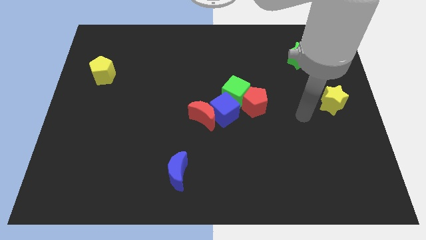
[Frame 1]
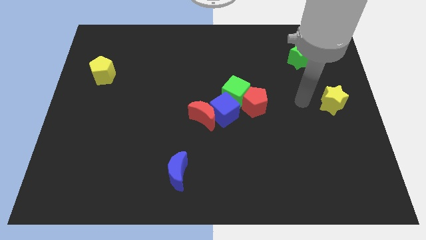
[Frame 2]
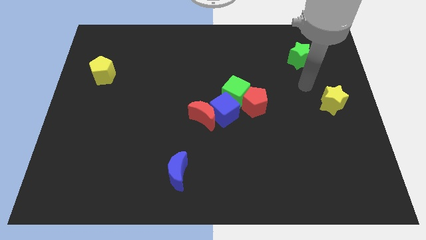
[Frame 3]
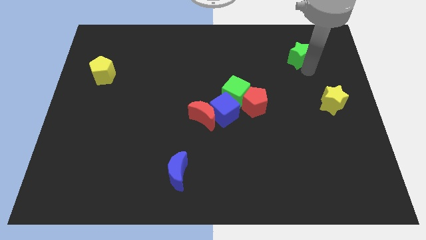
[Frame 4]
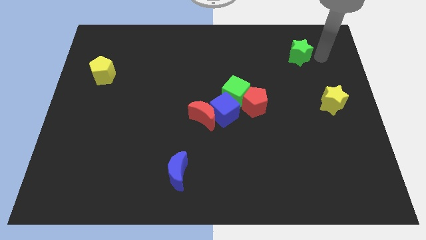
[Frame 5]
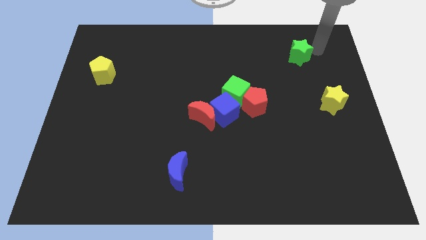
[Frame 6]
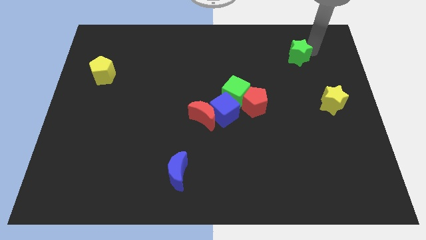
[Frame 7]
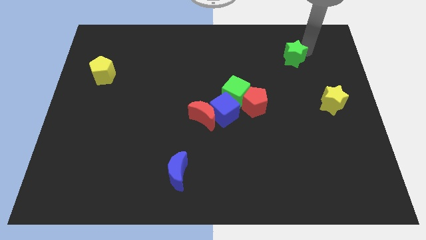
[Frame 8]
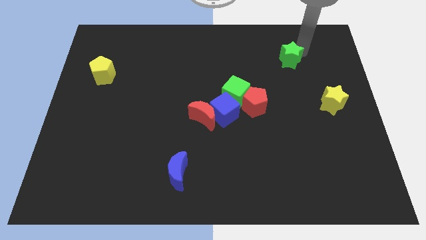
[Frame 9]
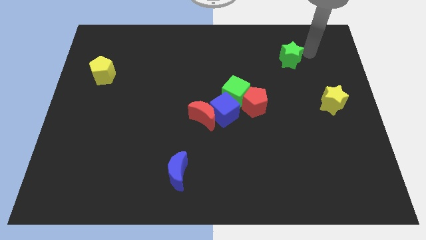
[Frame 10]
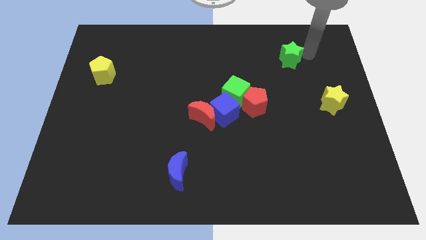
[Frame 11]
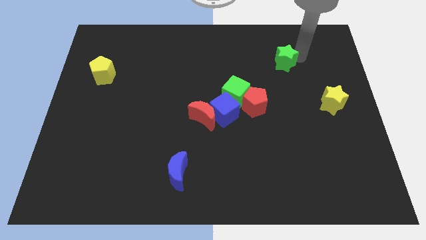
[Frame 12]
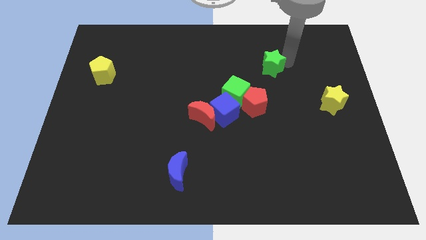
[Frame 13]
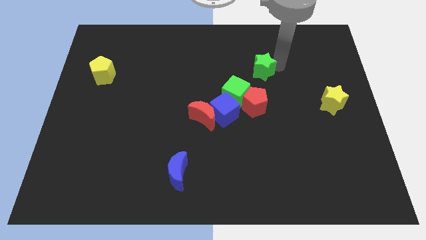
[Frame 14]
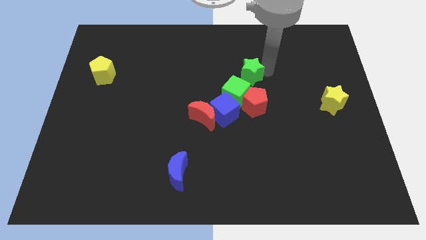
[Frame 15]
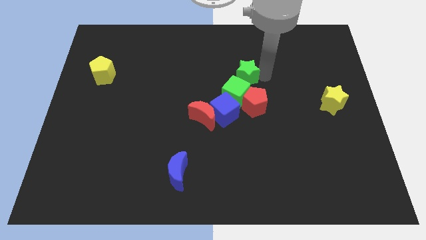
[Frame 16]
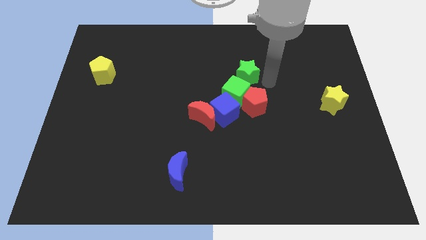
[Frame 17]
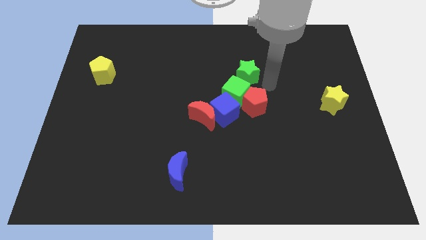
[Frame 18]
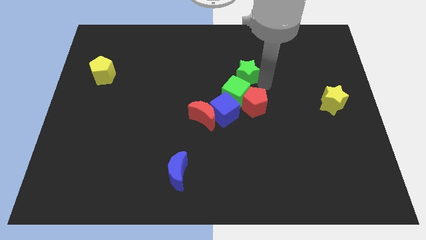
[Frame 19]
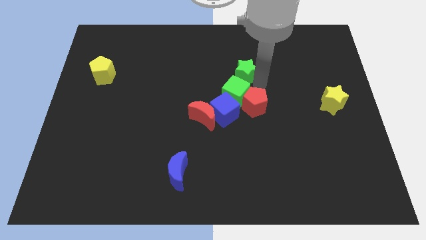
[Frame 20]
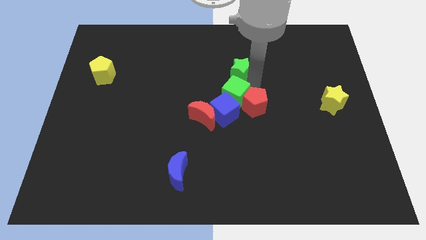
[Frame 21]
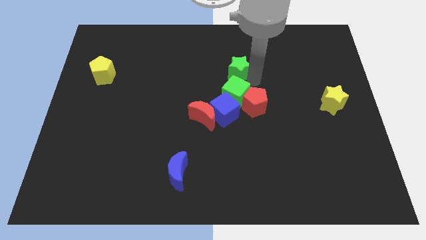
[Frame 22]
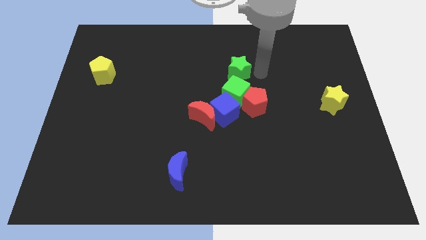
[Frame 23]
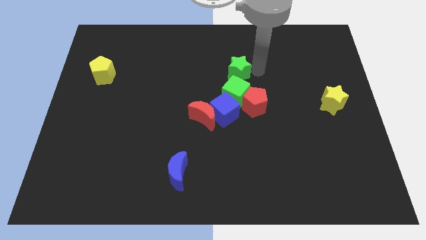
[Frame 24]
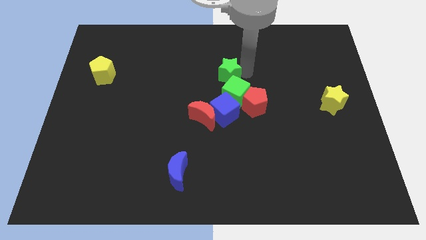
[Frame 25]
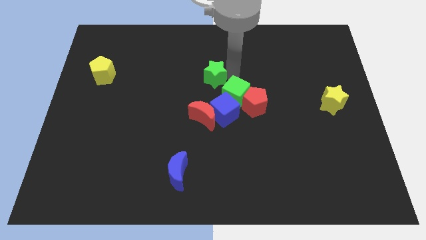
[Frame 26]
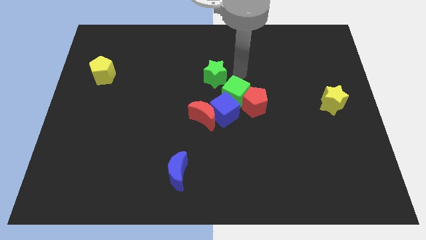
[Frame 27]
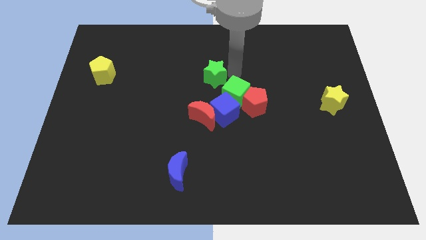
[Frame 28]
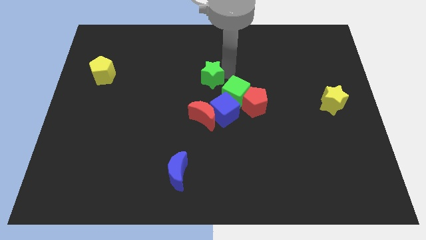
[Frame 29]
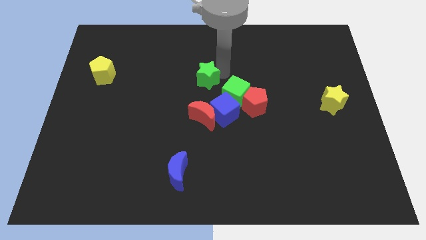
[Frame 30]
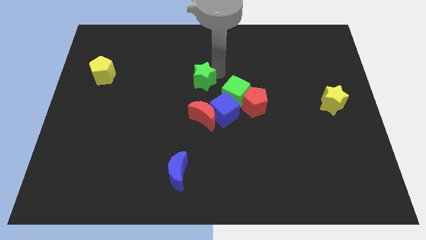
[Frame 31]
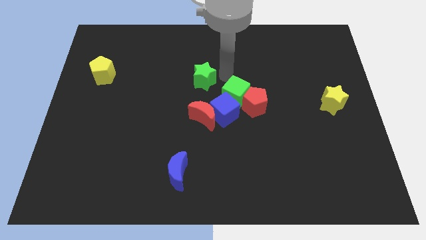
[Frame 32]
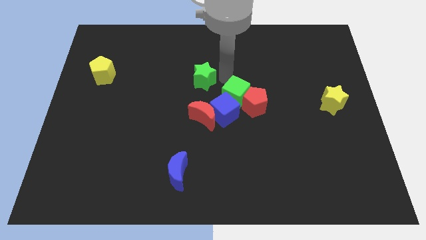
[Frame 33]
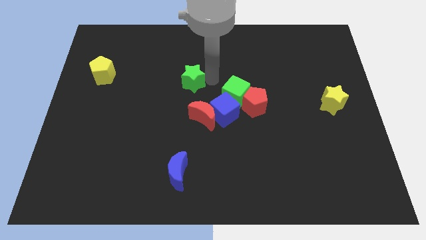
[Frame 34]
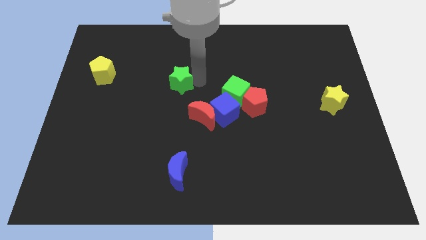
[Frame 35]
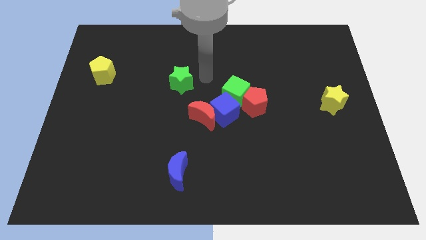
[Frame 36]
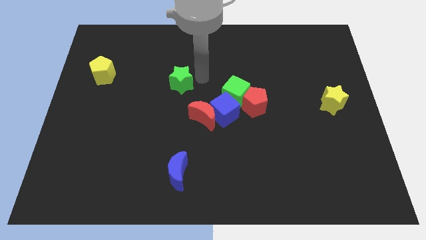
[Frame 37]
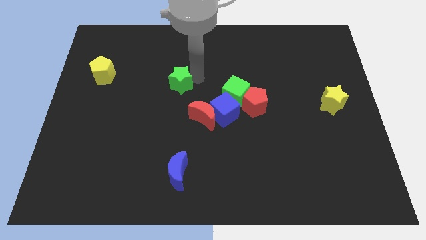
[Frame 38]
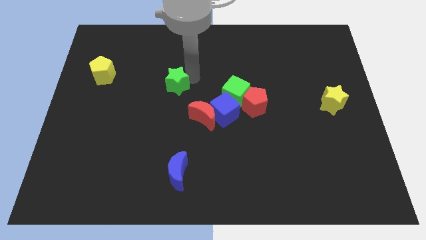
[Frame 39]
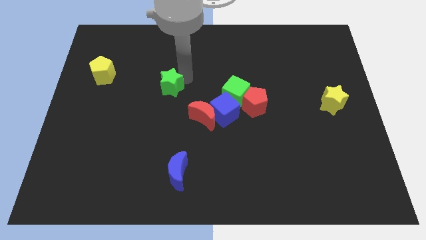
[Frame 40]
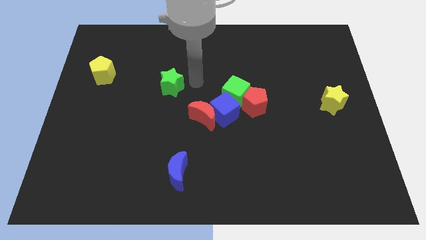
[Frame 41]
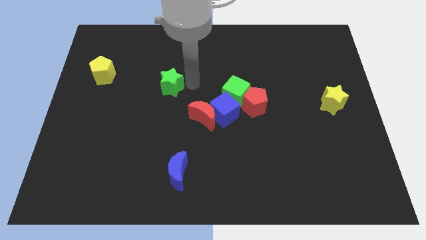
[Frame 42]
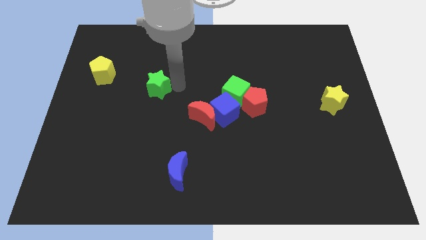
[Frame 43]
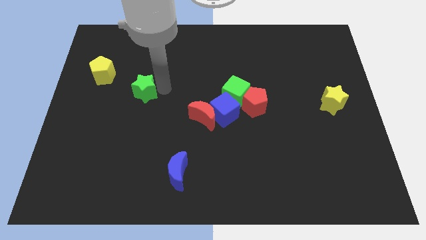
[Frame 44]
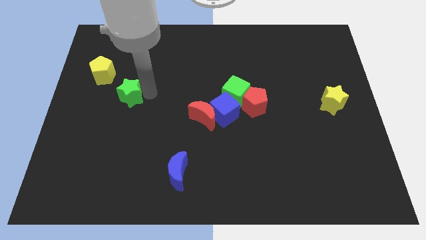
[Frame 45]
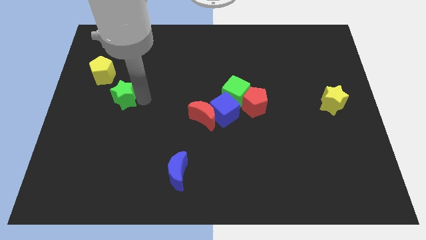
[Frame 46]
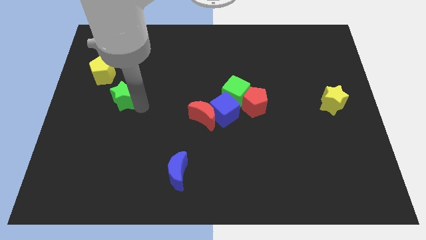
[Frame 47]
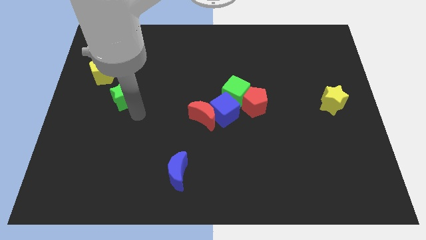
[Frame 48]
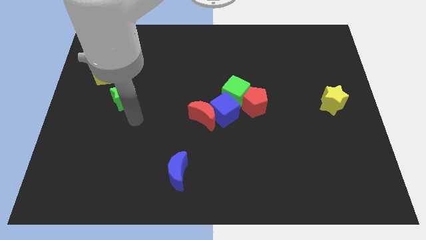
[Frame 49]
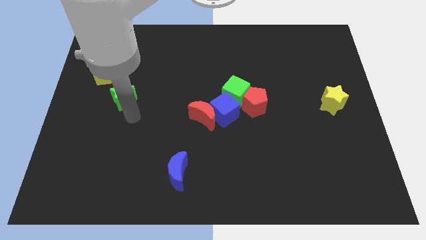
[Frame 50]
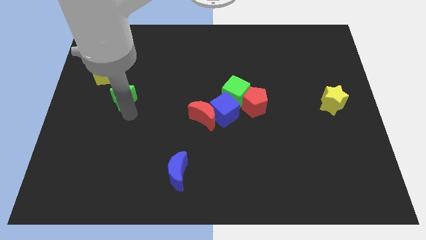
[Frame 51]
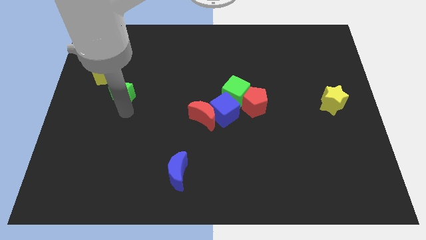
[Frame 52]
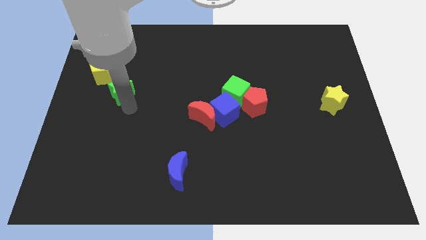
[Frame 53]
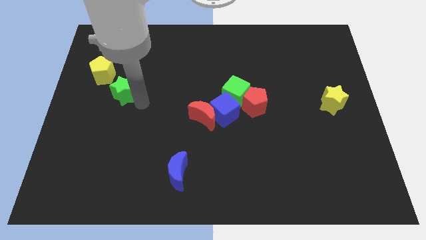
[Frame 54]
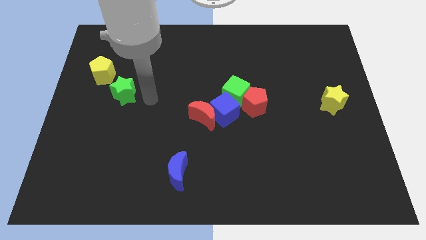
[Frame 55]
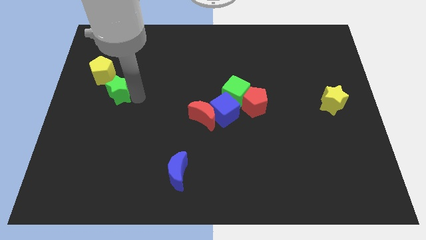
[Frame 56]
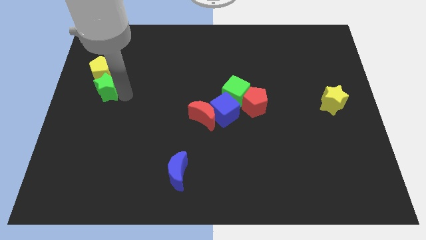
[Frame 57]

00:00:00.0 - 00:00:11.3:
slide the green star to the left side

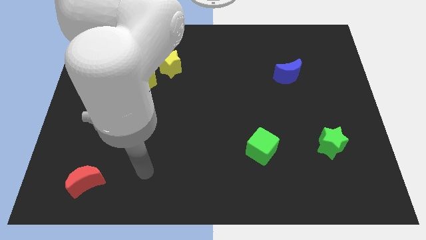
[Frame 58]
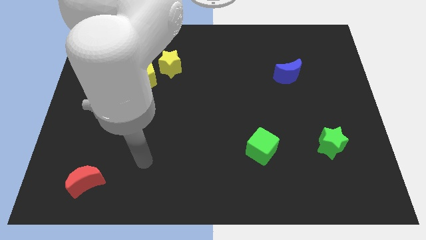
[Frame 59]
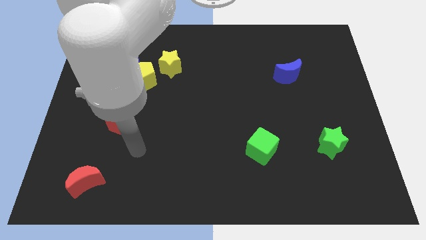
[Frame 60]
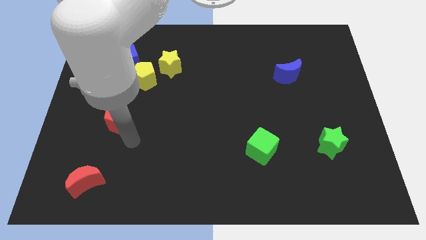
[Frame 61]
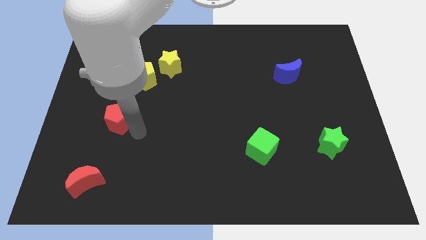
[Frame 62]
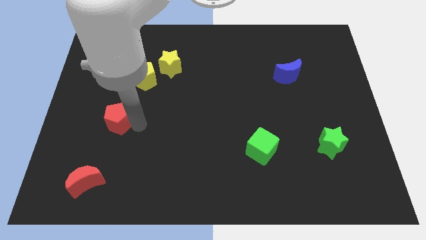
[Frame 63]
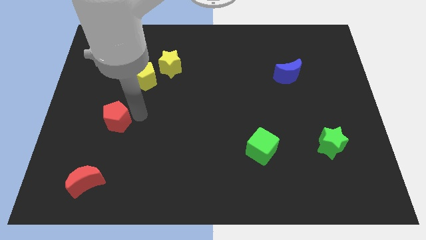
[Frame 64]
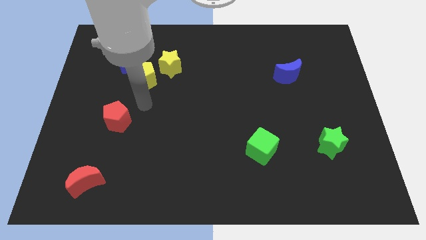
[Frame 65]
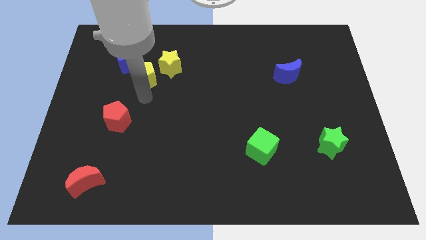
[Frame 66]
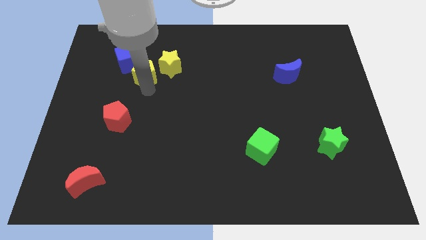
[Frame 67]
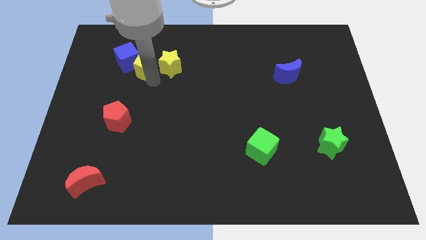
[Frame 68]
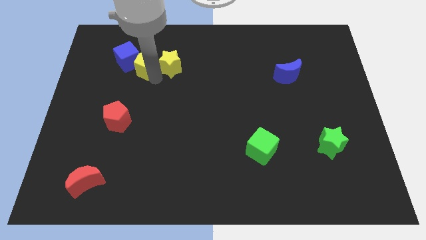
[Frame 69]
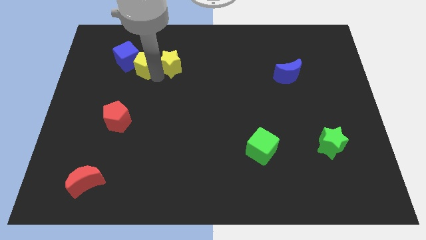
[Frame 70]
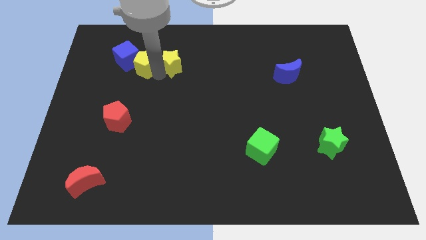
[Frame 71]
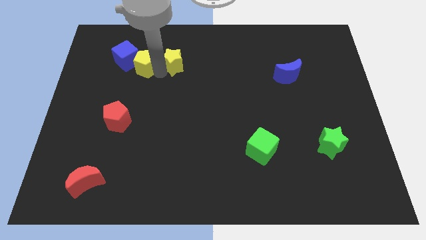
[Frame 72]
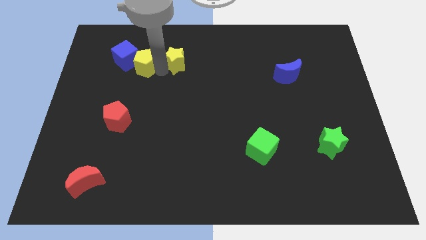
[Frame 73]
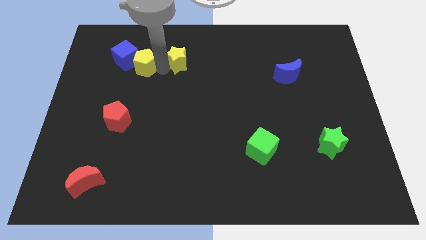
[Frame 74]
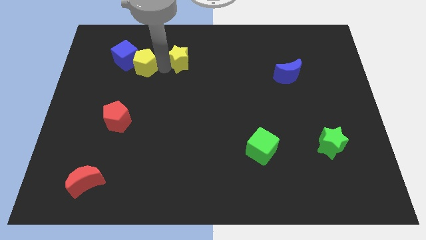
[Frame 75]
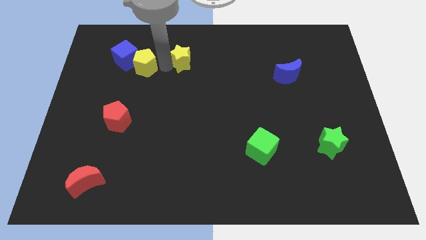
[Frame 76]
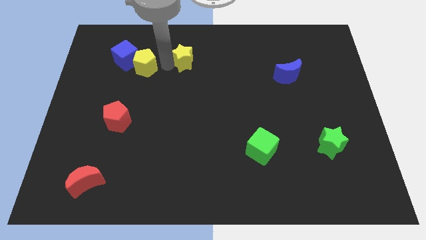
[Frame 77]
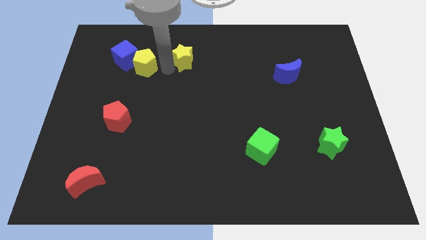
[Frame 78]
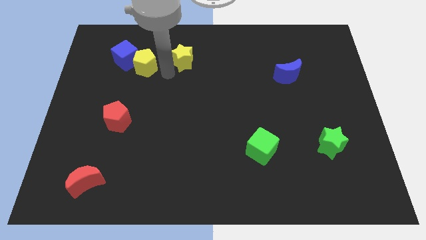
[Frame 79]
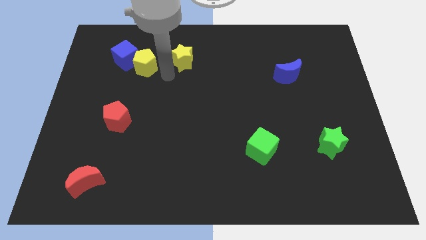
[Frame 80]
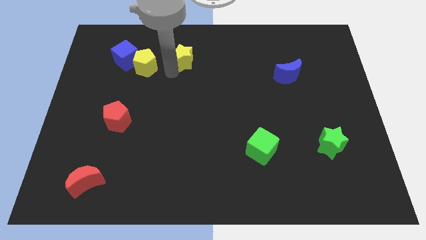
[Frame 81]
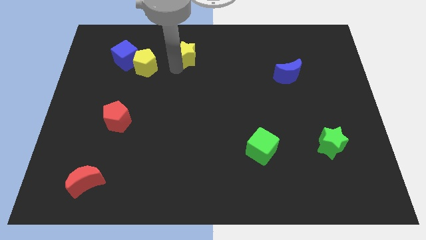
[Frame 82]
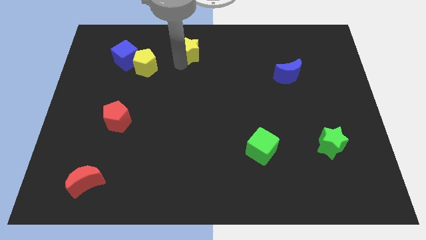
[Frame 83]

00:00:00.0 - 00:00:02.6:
push the yellow star to the top side
